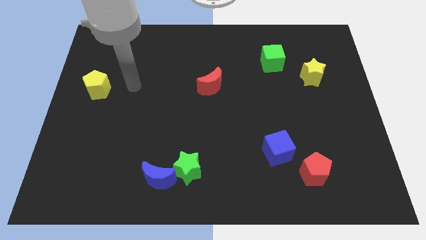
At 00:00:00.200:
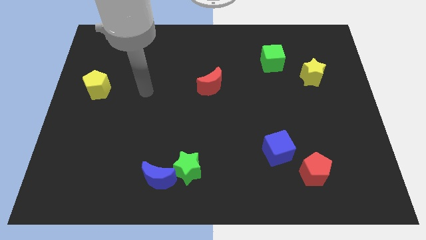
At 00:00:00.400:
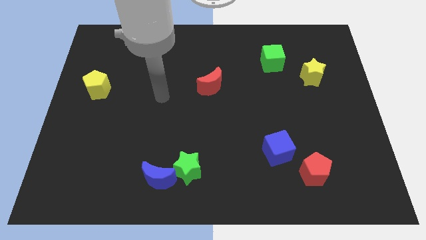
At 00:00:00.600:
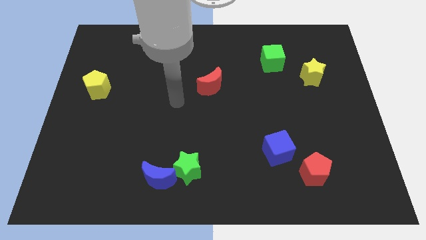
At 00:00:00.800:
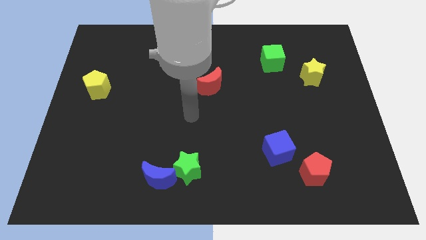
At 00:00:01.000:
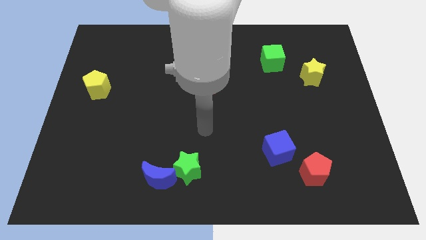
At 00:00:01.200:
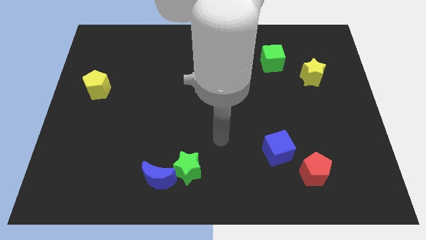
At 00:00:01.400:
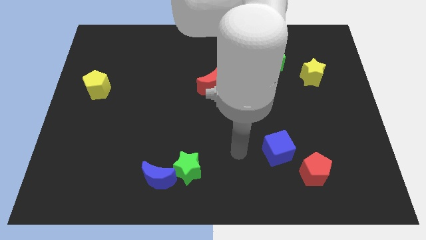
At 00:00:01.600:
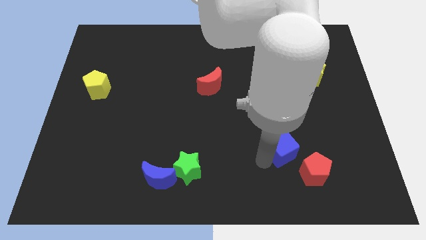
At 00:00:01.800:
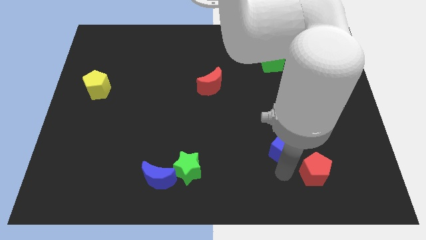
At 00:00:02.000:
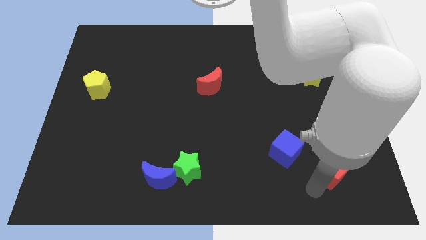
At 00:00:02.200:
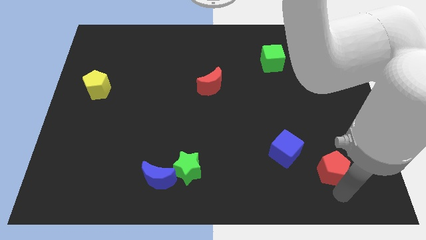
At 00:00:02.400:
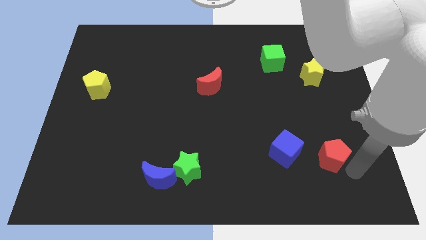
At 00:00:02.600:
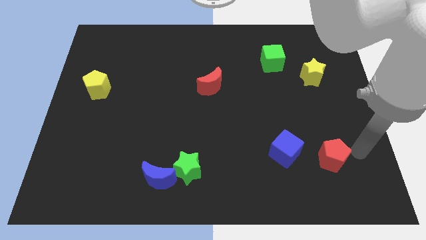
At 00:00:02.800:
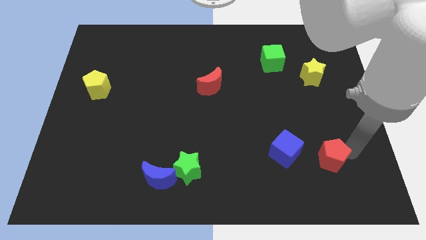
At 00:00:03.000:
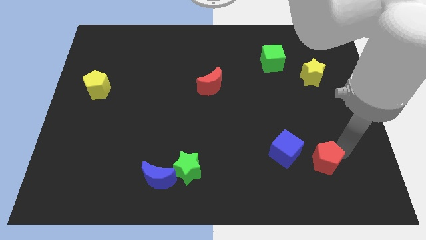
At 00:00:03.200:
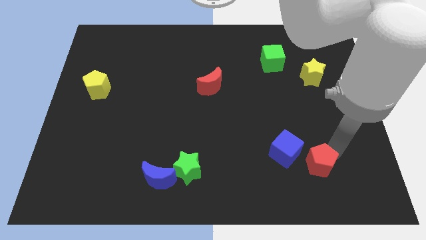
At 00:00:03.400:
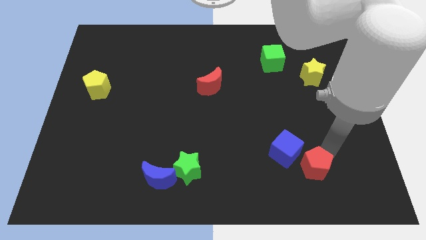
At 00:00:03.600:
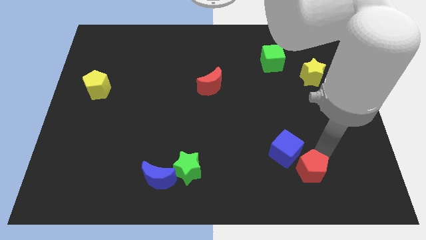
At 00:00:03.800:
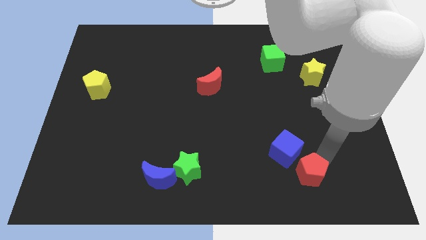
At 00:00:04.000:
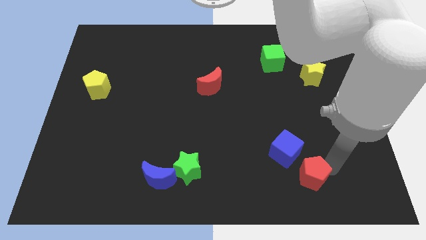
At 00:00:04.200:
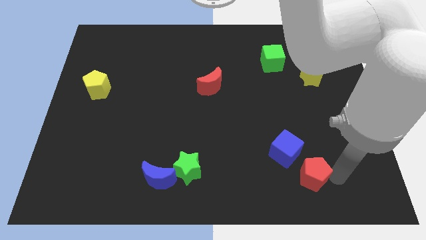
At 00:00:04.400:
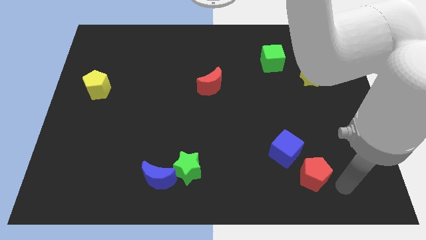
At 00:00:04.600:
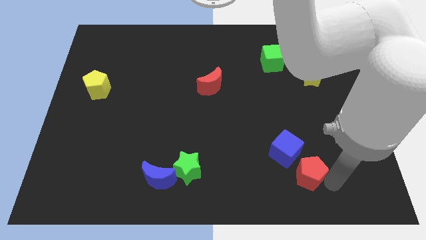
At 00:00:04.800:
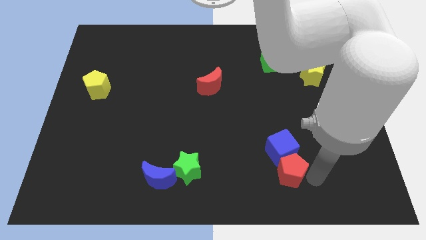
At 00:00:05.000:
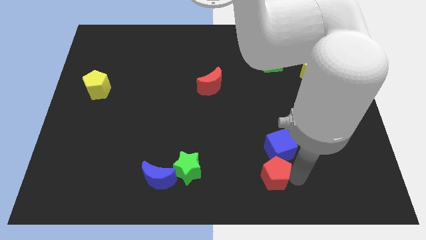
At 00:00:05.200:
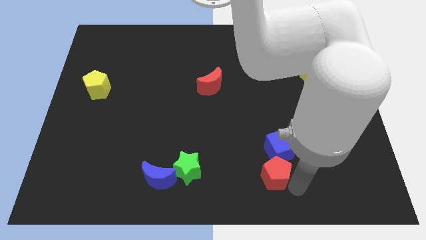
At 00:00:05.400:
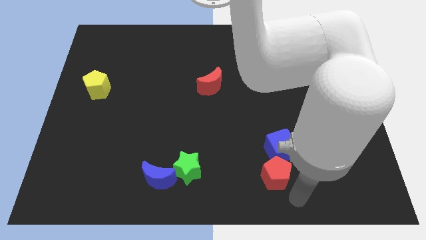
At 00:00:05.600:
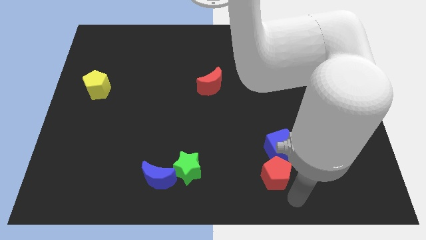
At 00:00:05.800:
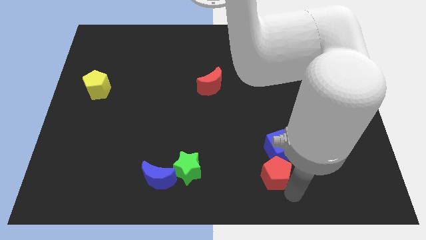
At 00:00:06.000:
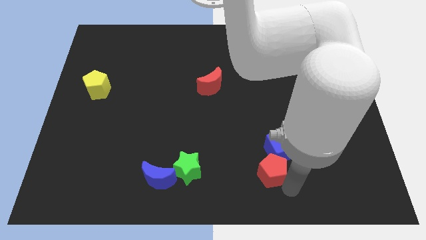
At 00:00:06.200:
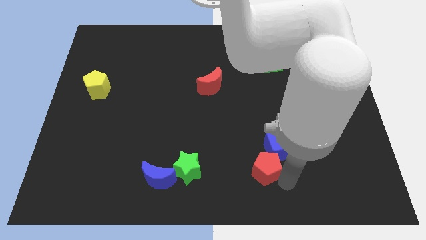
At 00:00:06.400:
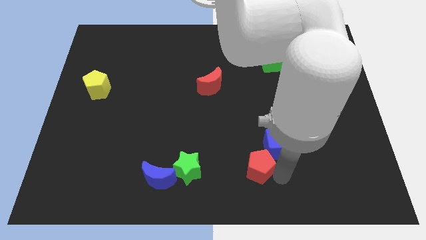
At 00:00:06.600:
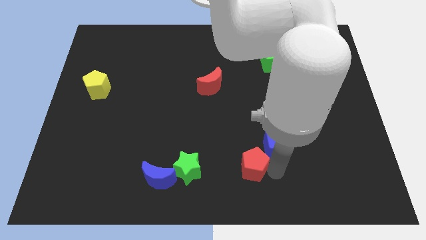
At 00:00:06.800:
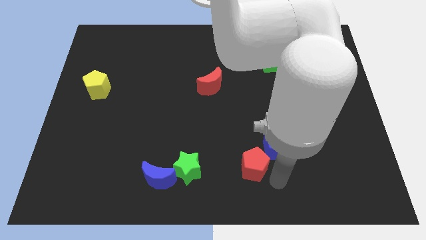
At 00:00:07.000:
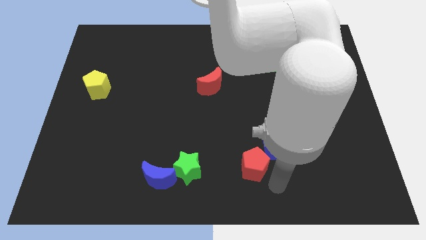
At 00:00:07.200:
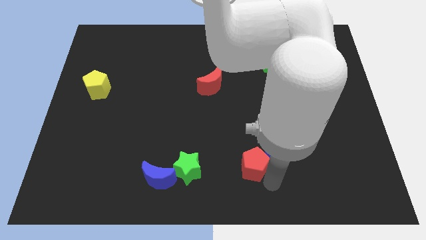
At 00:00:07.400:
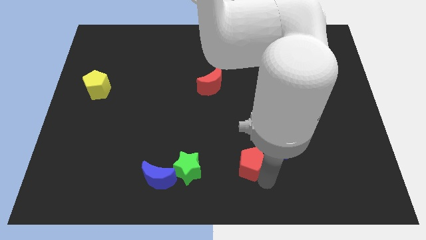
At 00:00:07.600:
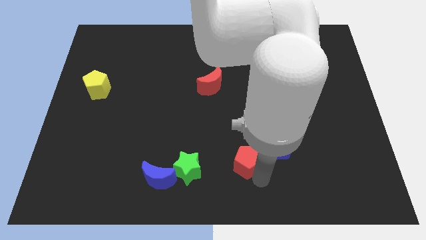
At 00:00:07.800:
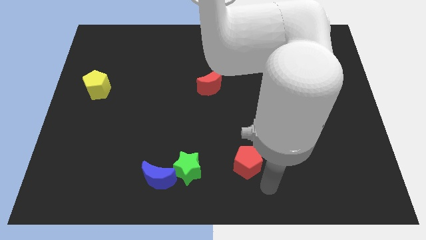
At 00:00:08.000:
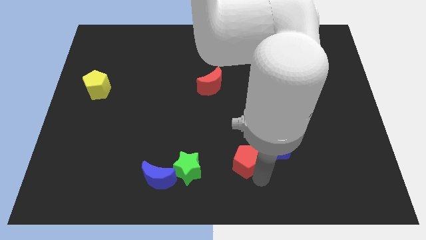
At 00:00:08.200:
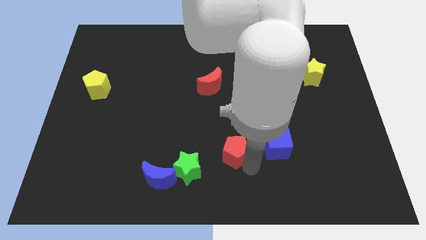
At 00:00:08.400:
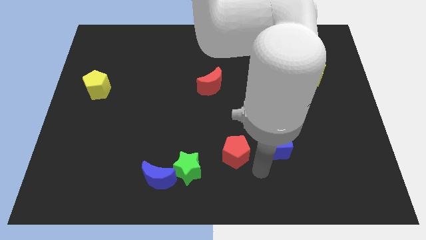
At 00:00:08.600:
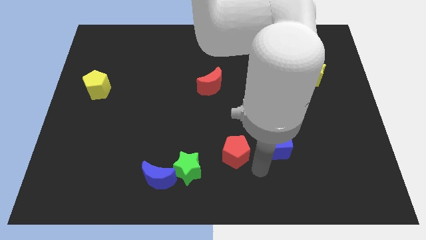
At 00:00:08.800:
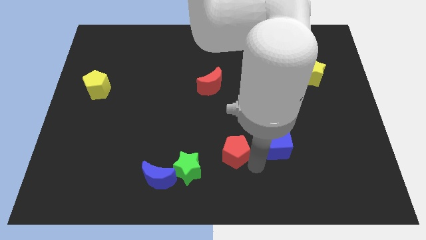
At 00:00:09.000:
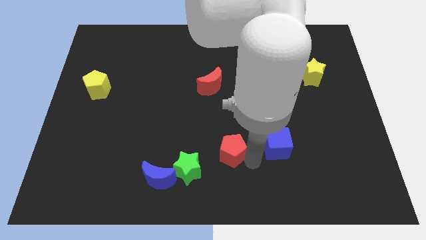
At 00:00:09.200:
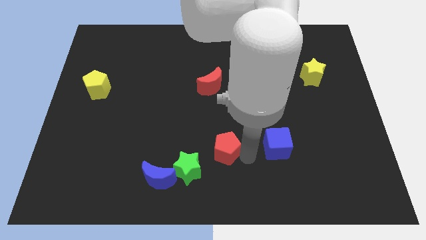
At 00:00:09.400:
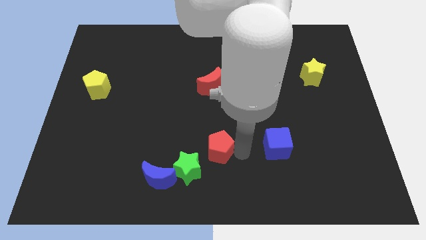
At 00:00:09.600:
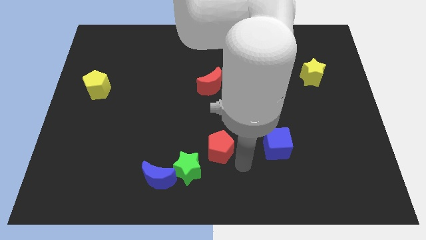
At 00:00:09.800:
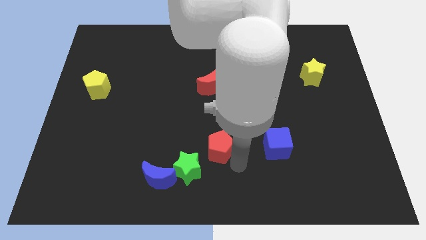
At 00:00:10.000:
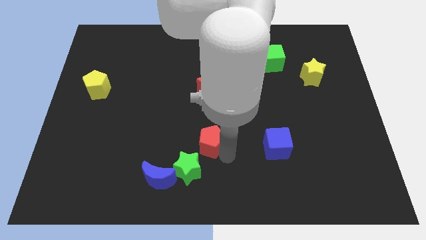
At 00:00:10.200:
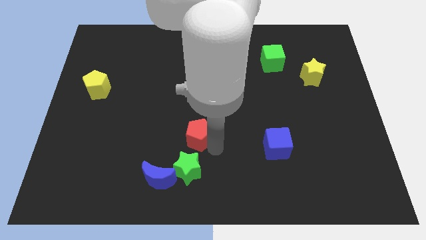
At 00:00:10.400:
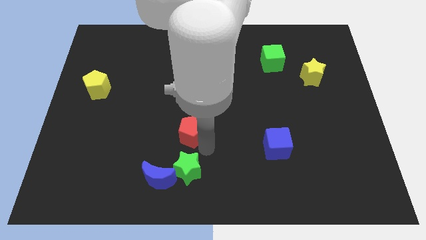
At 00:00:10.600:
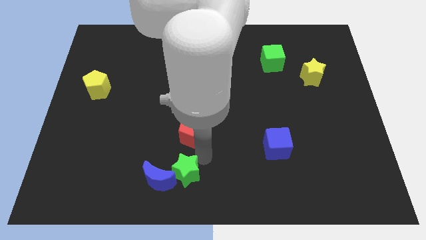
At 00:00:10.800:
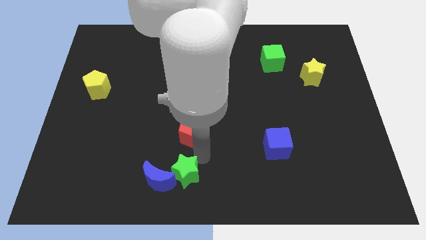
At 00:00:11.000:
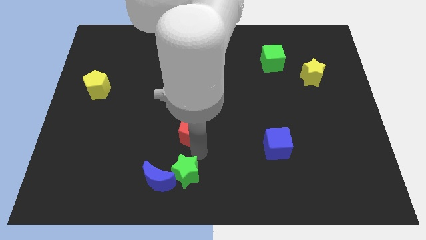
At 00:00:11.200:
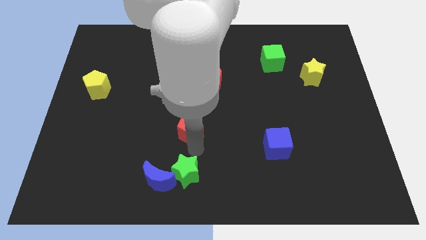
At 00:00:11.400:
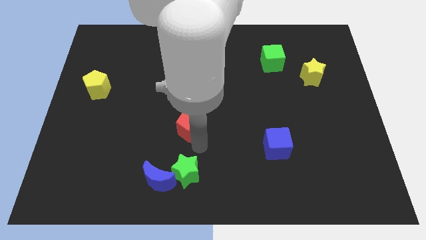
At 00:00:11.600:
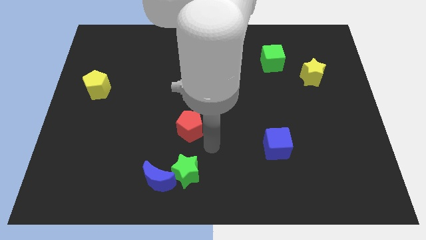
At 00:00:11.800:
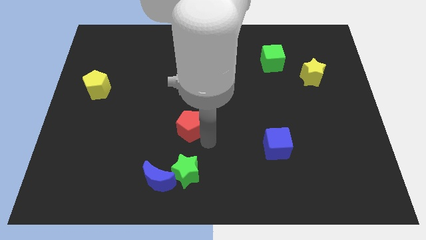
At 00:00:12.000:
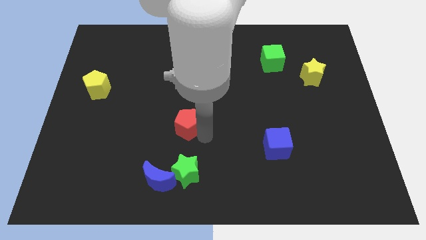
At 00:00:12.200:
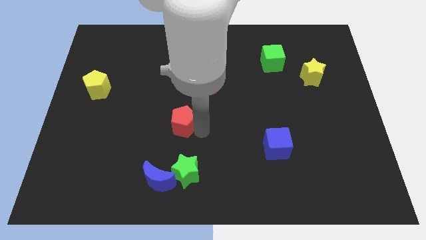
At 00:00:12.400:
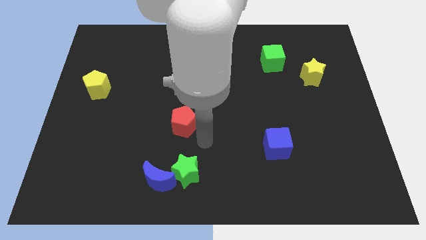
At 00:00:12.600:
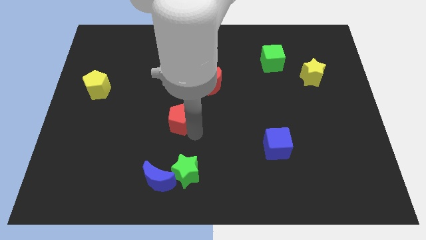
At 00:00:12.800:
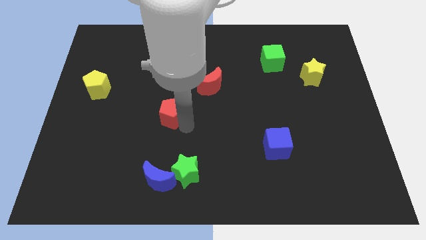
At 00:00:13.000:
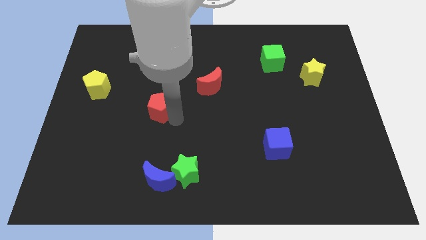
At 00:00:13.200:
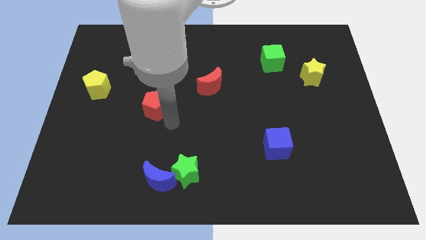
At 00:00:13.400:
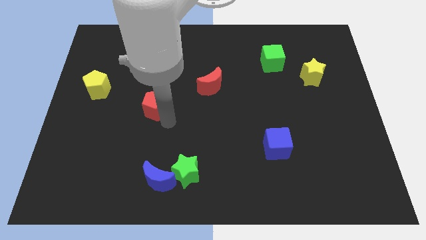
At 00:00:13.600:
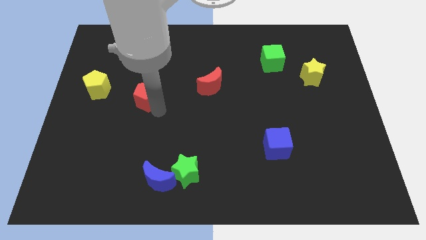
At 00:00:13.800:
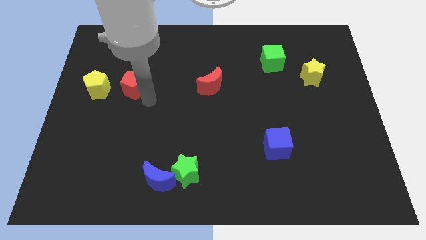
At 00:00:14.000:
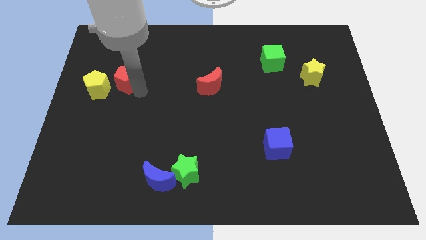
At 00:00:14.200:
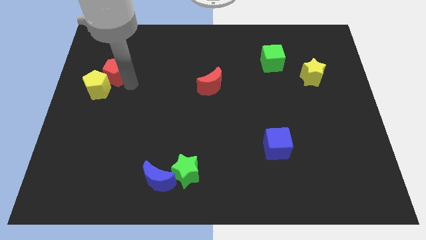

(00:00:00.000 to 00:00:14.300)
slide the red pentagon to the top side of the yellow pentagon
